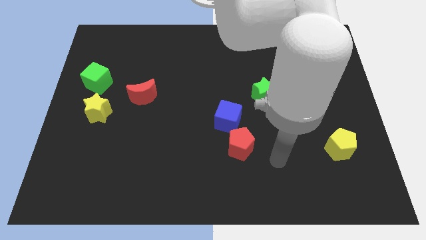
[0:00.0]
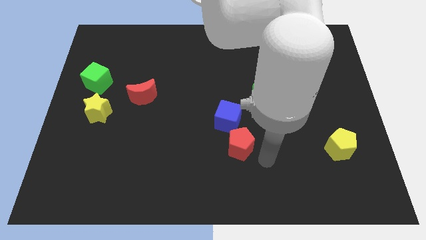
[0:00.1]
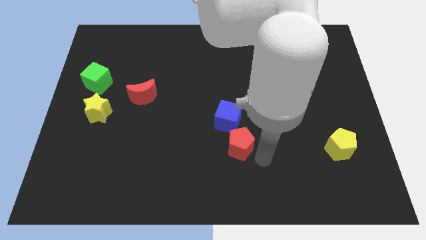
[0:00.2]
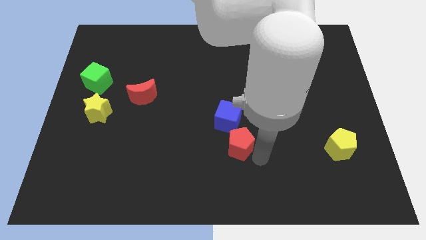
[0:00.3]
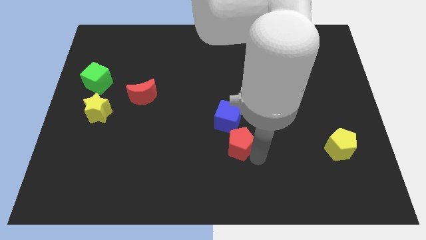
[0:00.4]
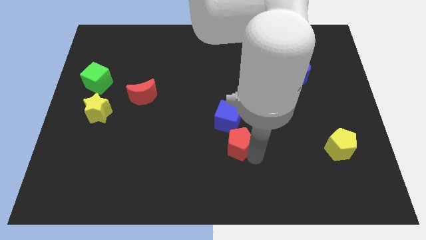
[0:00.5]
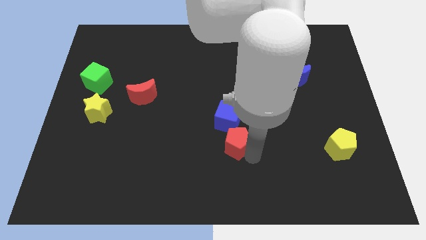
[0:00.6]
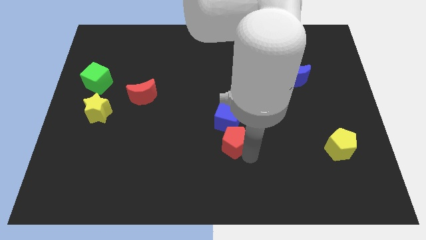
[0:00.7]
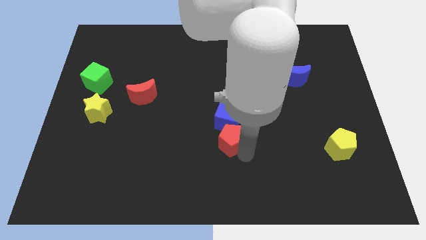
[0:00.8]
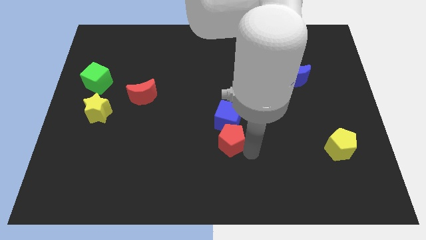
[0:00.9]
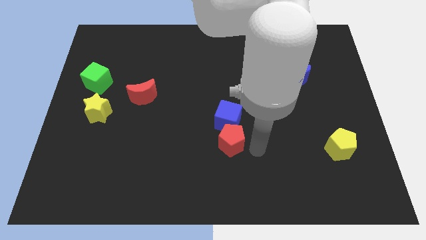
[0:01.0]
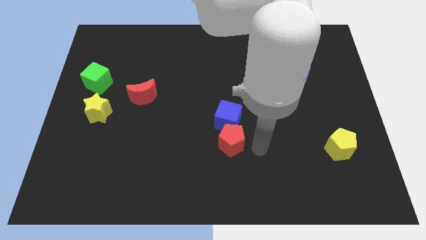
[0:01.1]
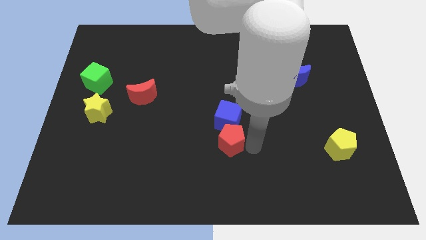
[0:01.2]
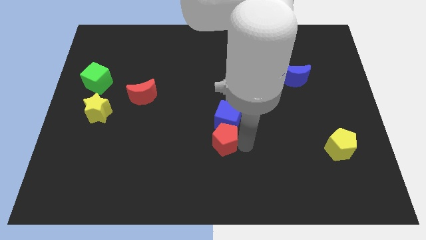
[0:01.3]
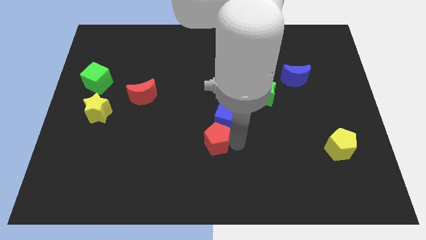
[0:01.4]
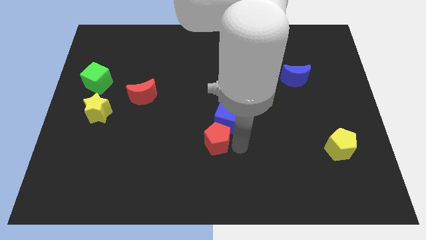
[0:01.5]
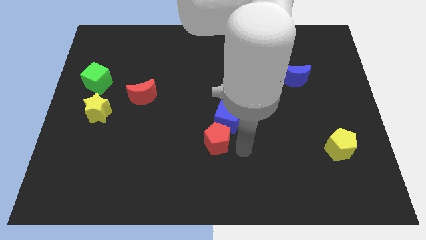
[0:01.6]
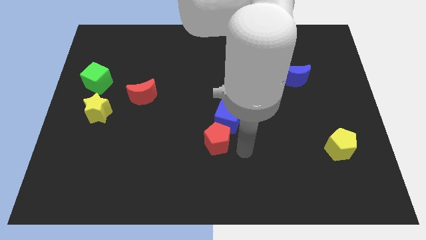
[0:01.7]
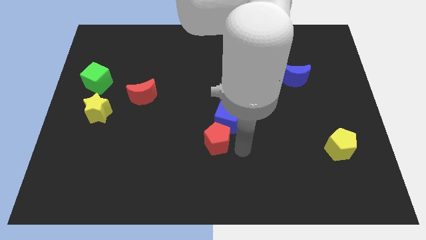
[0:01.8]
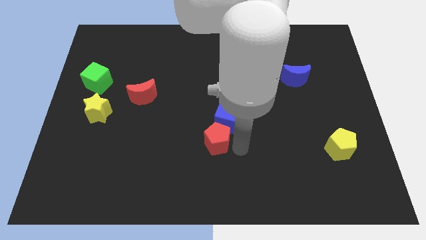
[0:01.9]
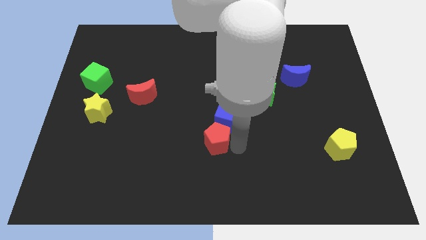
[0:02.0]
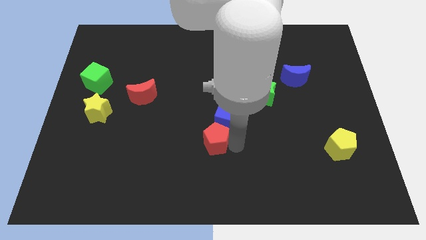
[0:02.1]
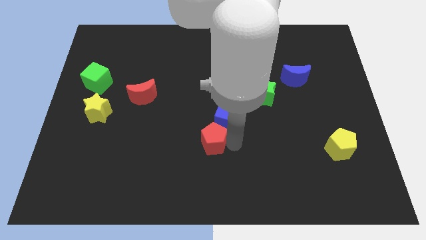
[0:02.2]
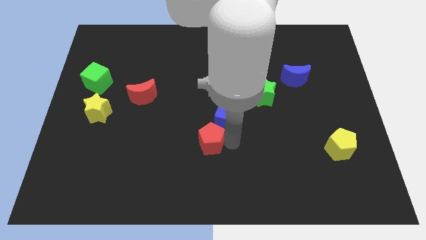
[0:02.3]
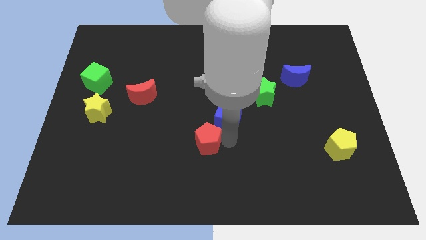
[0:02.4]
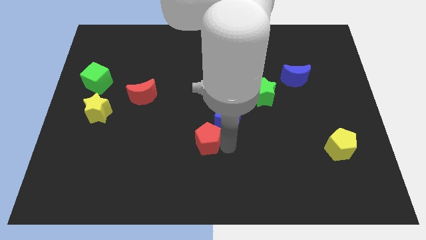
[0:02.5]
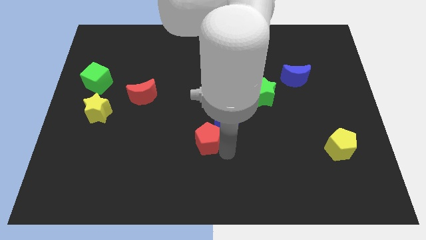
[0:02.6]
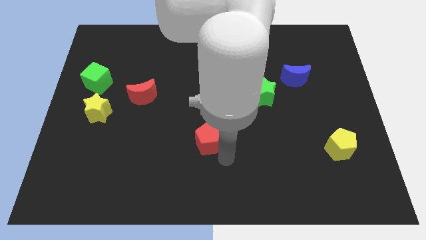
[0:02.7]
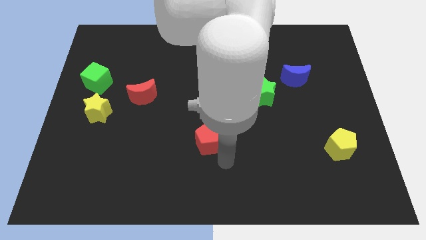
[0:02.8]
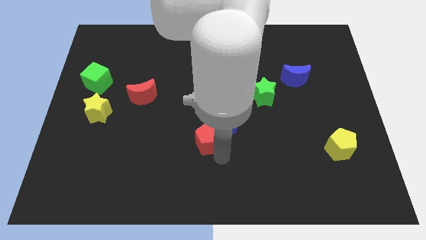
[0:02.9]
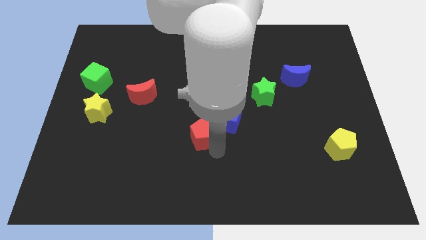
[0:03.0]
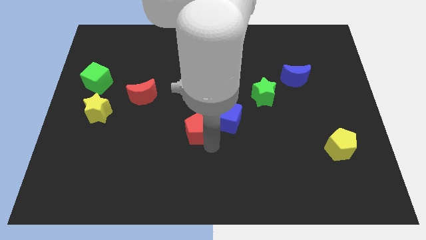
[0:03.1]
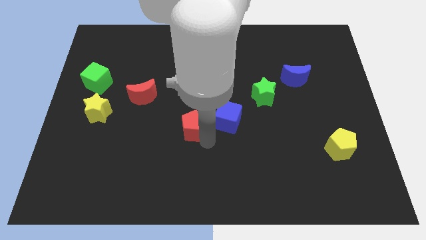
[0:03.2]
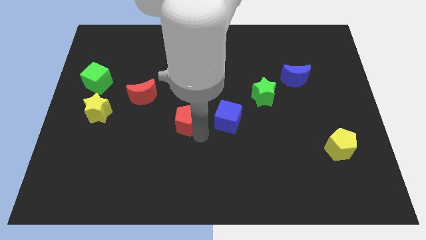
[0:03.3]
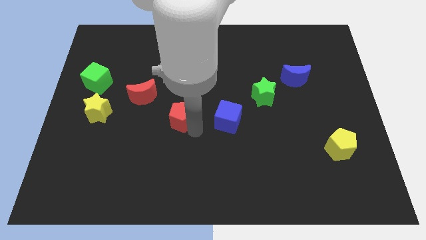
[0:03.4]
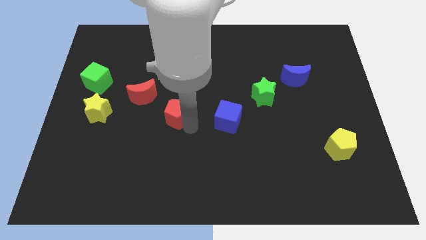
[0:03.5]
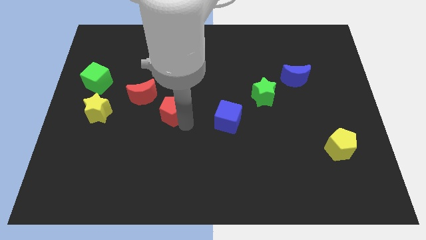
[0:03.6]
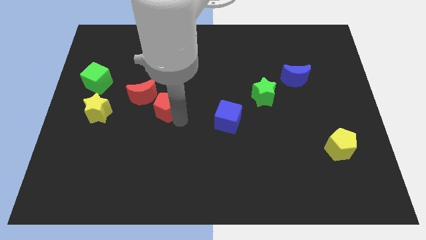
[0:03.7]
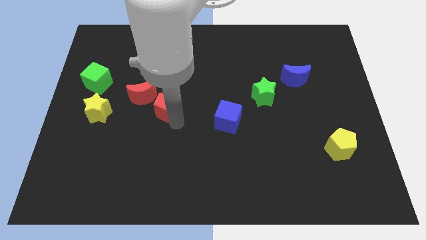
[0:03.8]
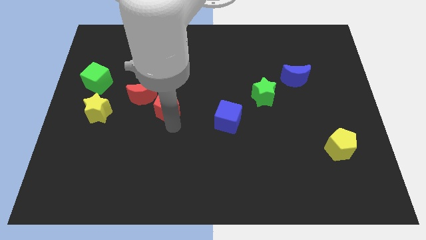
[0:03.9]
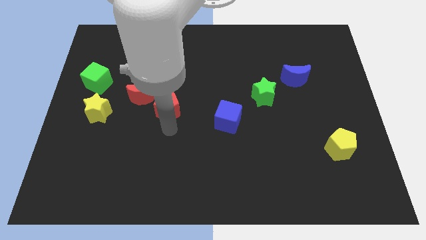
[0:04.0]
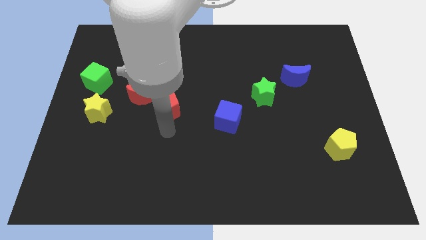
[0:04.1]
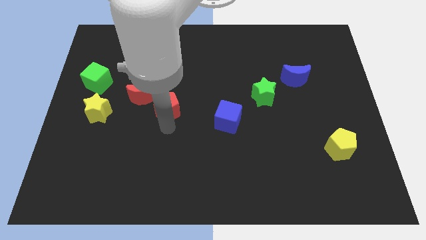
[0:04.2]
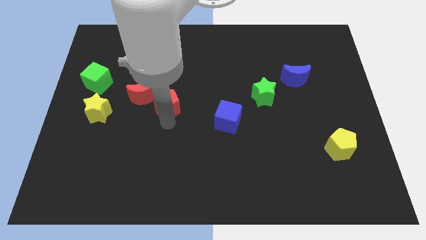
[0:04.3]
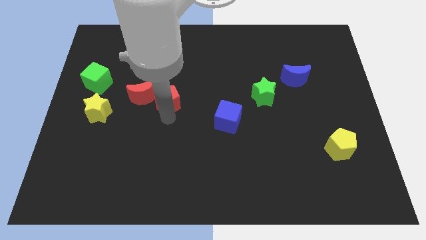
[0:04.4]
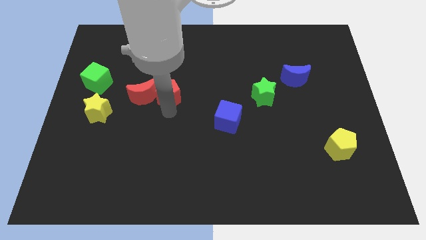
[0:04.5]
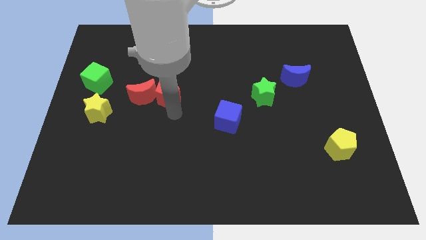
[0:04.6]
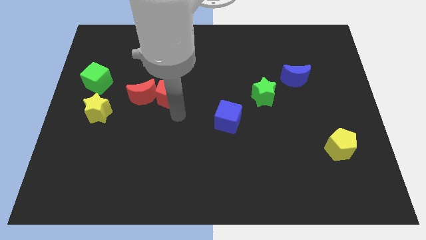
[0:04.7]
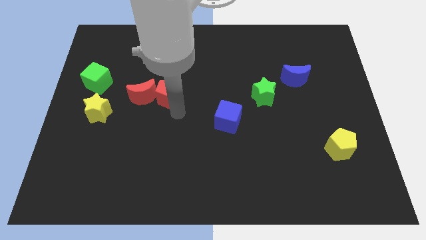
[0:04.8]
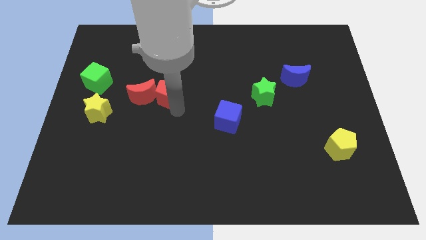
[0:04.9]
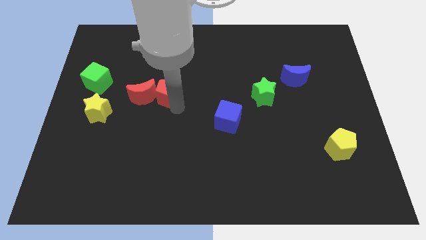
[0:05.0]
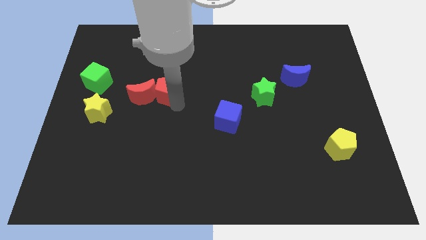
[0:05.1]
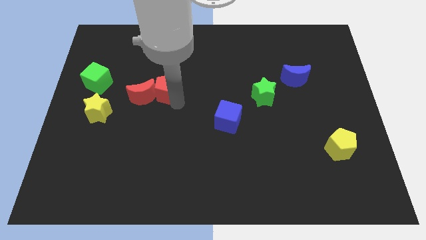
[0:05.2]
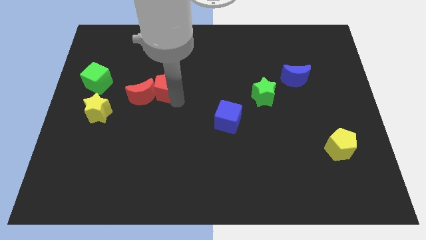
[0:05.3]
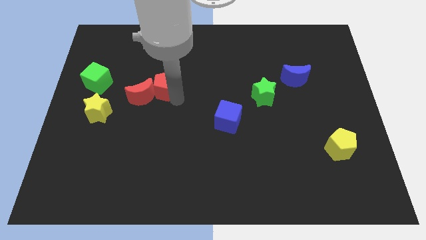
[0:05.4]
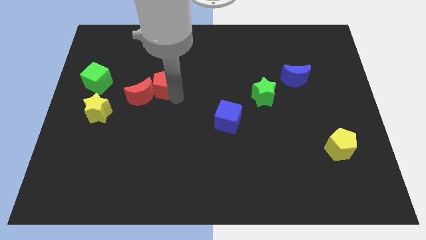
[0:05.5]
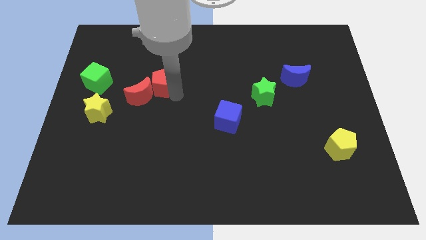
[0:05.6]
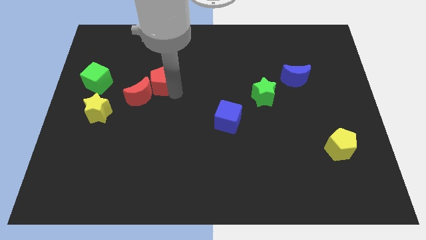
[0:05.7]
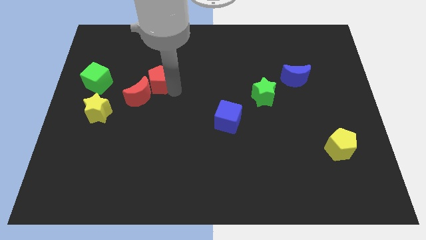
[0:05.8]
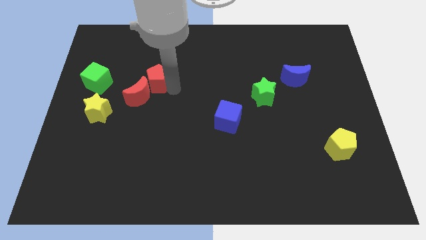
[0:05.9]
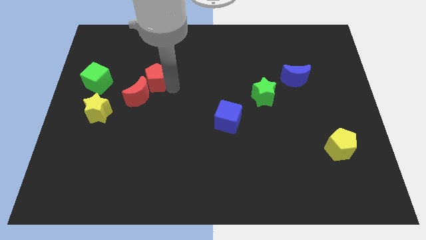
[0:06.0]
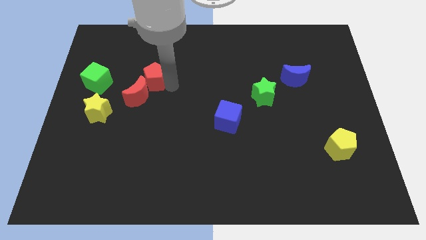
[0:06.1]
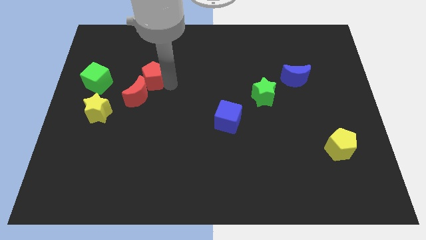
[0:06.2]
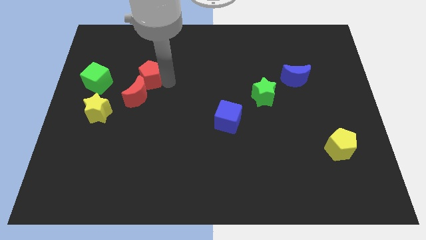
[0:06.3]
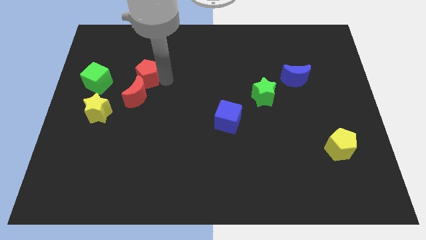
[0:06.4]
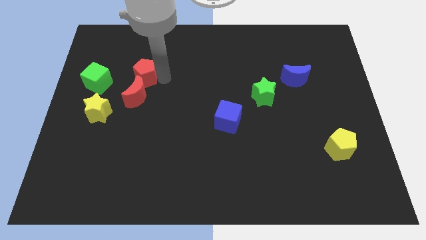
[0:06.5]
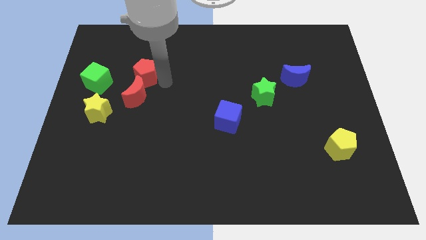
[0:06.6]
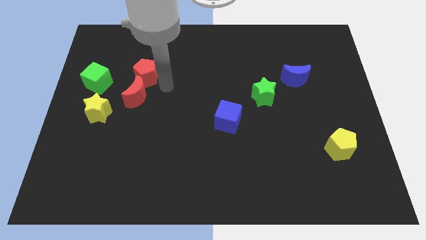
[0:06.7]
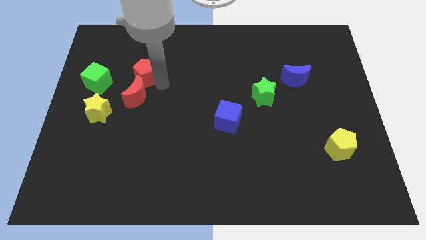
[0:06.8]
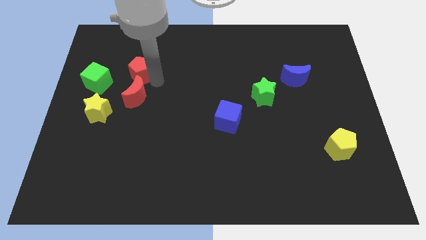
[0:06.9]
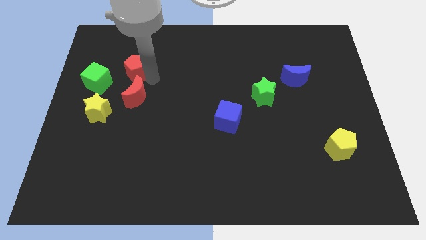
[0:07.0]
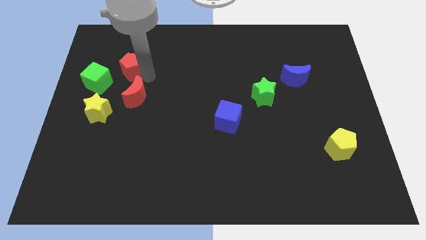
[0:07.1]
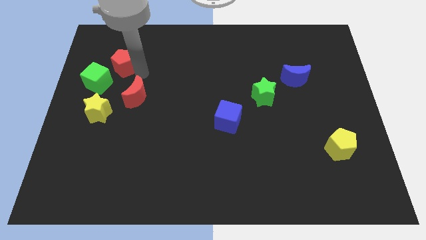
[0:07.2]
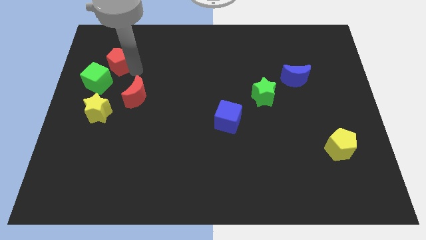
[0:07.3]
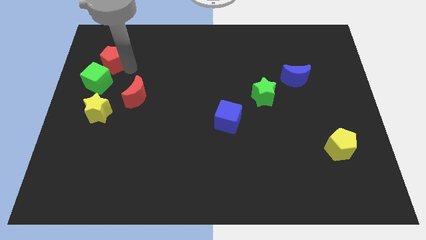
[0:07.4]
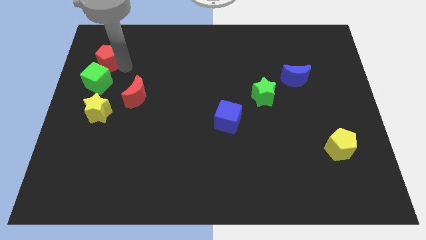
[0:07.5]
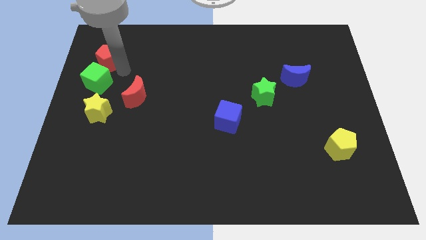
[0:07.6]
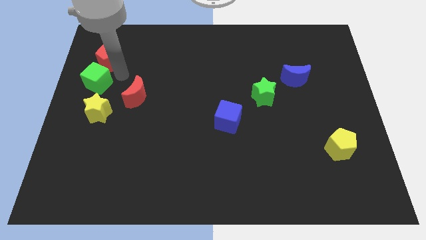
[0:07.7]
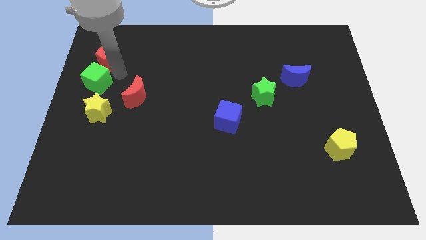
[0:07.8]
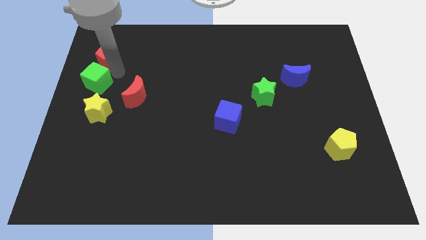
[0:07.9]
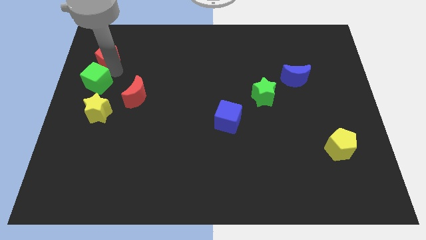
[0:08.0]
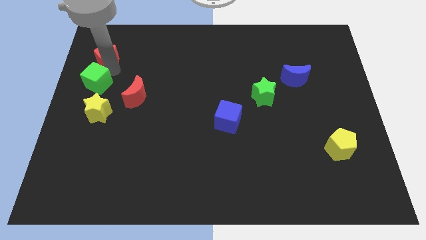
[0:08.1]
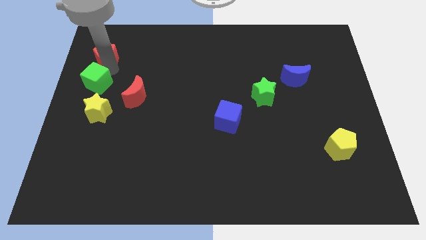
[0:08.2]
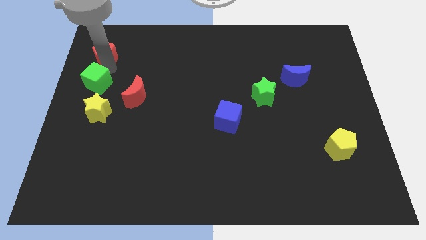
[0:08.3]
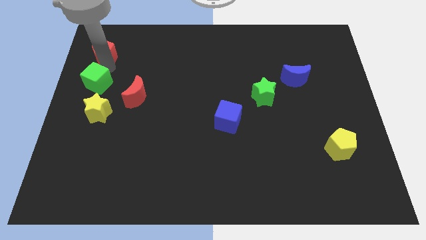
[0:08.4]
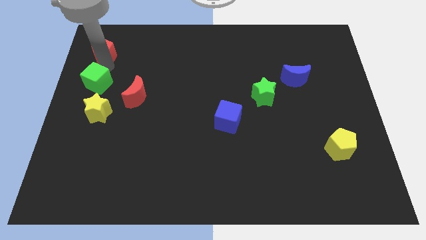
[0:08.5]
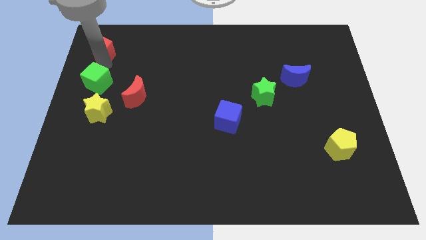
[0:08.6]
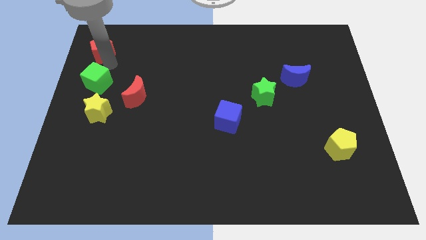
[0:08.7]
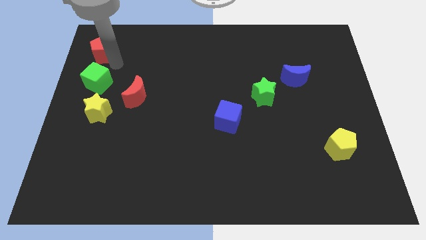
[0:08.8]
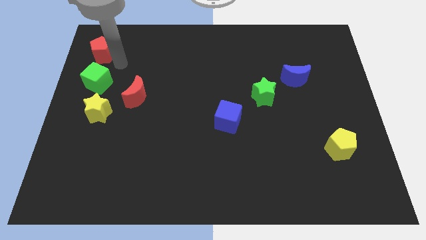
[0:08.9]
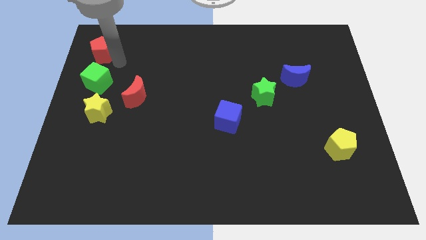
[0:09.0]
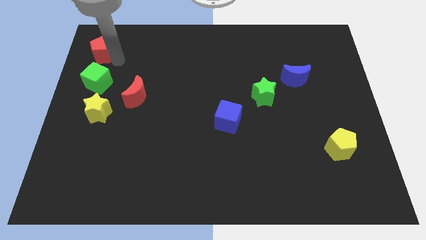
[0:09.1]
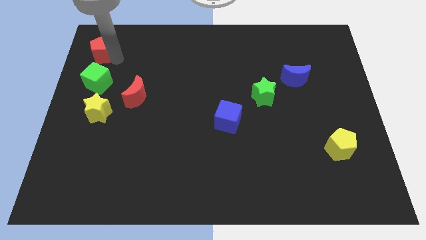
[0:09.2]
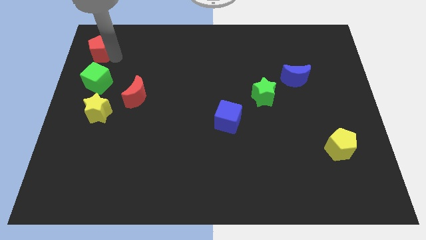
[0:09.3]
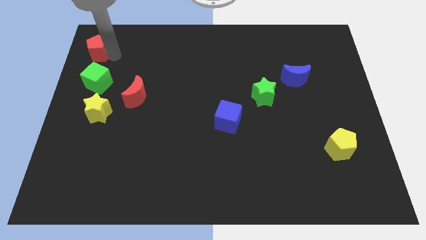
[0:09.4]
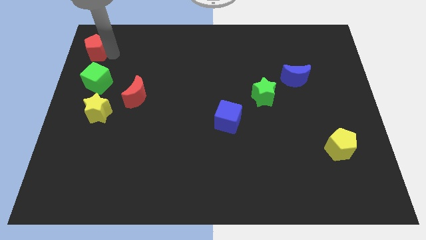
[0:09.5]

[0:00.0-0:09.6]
move the red pentagon to the top left corner
